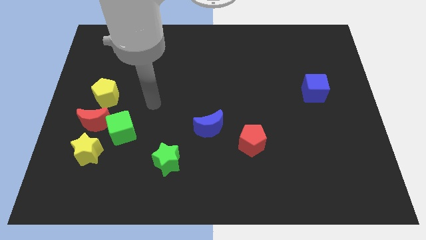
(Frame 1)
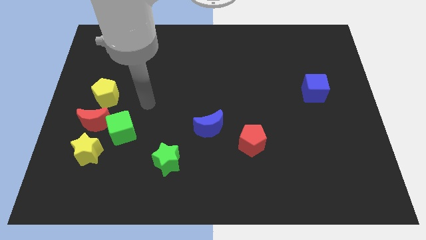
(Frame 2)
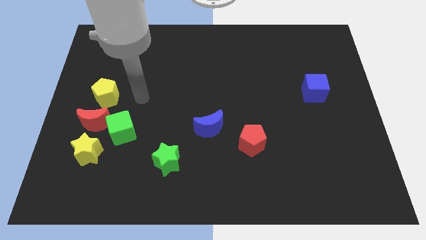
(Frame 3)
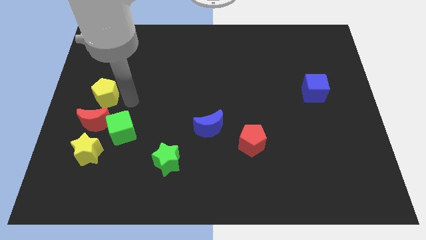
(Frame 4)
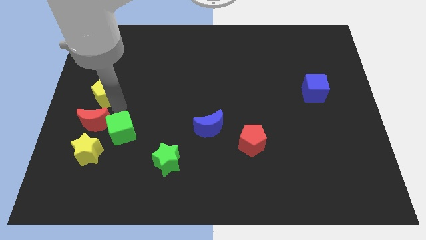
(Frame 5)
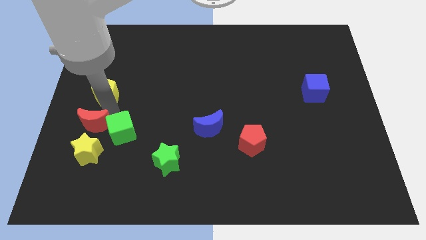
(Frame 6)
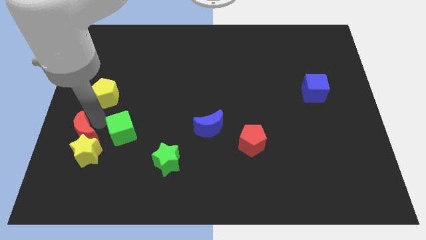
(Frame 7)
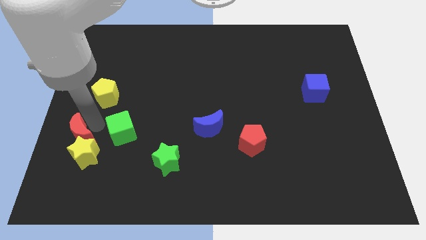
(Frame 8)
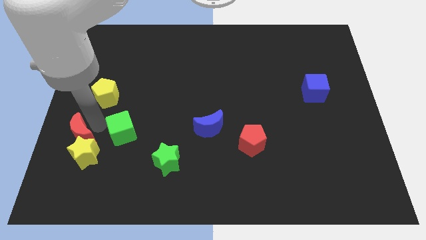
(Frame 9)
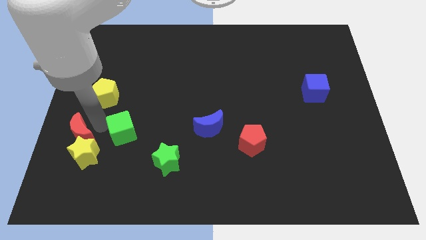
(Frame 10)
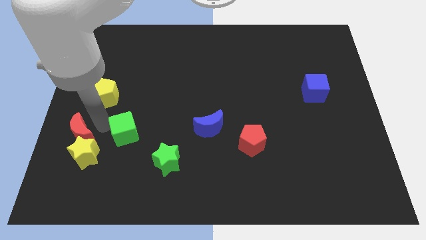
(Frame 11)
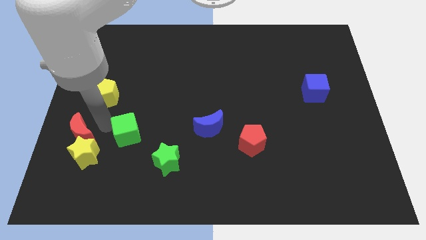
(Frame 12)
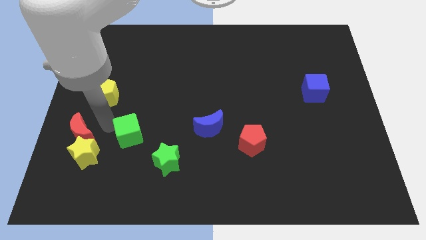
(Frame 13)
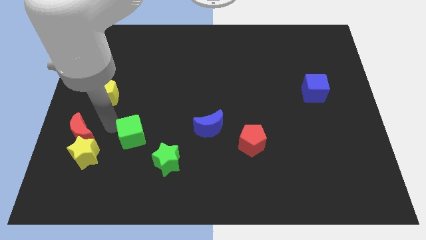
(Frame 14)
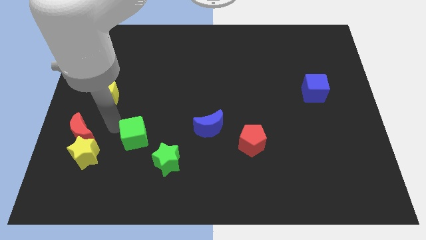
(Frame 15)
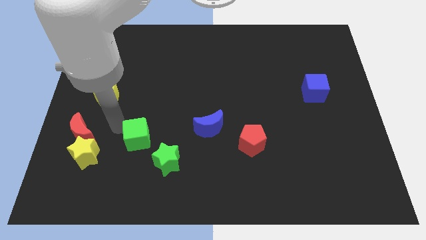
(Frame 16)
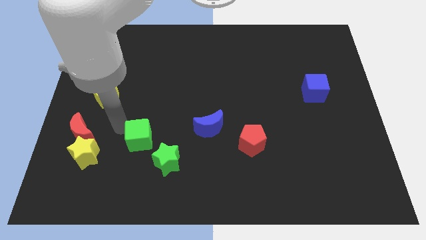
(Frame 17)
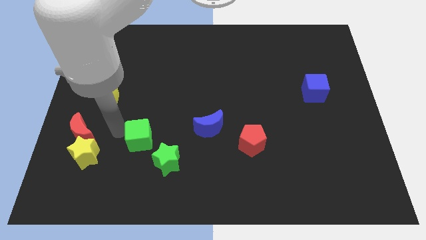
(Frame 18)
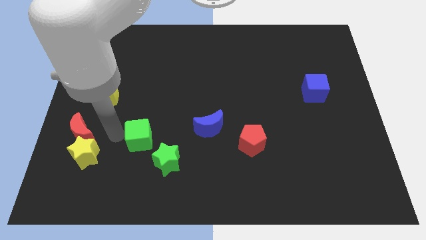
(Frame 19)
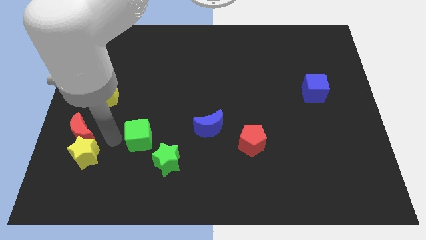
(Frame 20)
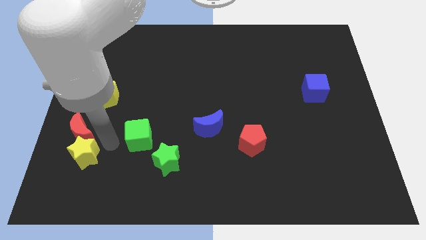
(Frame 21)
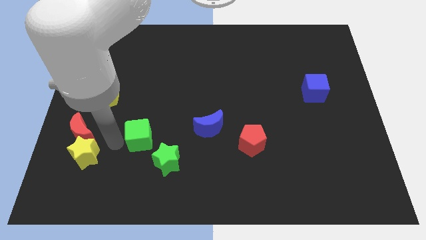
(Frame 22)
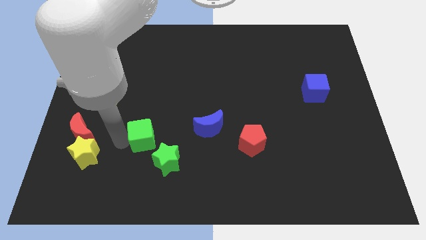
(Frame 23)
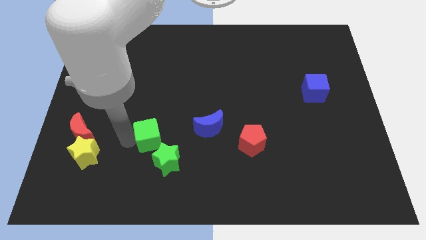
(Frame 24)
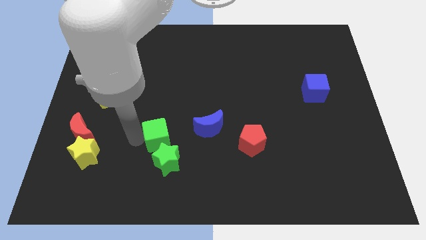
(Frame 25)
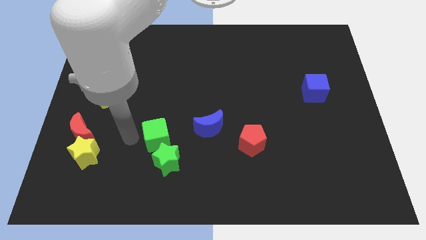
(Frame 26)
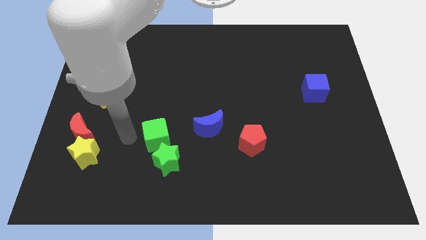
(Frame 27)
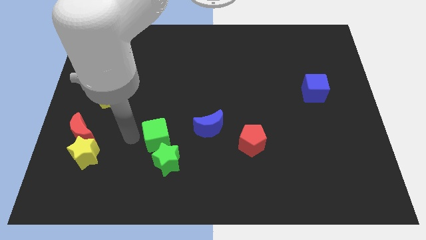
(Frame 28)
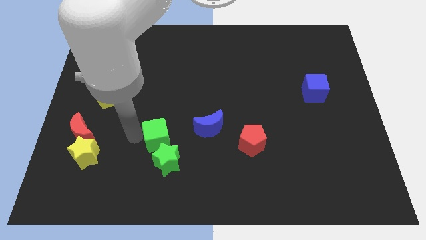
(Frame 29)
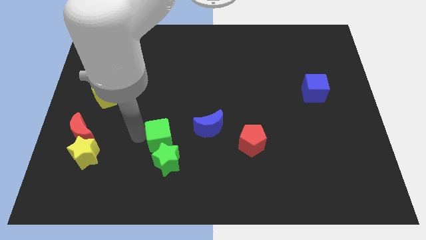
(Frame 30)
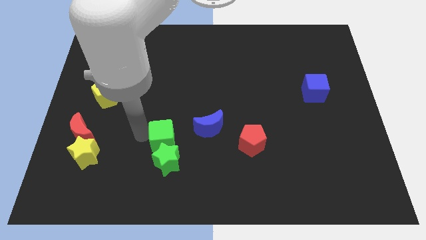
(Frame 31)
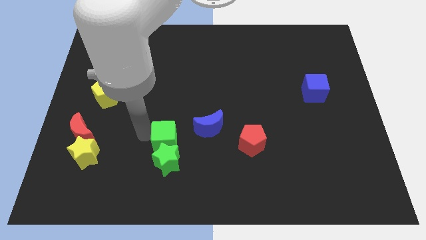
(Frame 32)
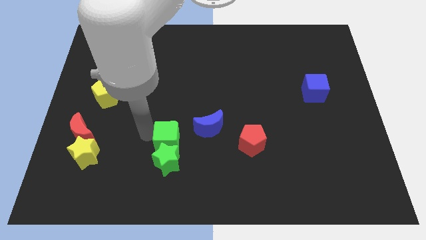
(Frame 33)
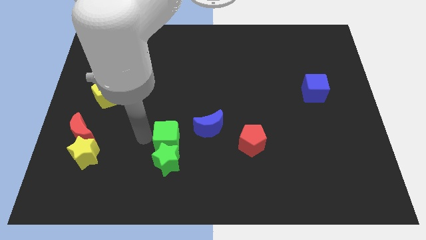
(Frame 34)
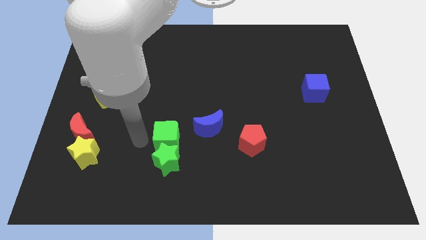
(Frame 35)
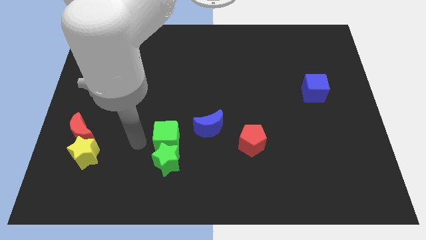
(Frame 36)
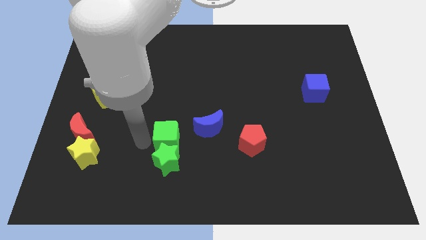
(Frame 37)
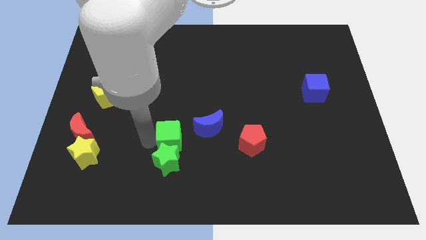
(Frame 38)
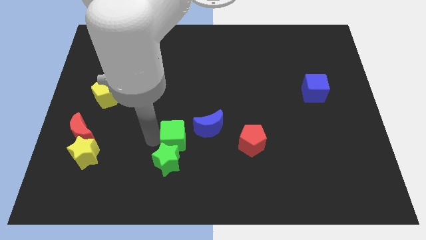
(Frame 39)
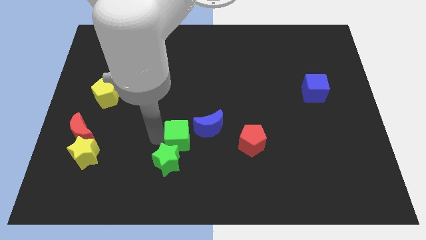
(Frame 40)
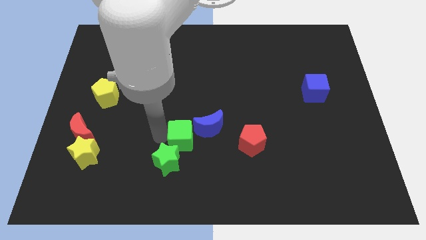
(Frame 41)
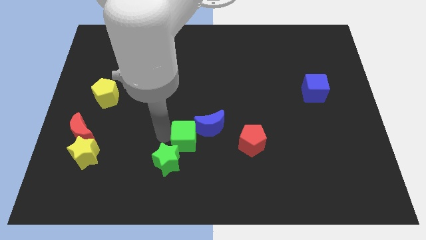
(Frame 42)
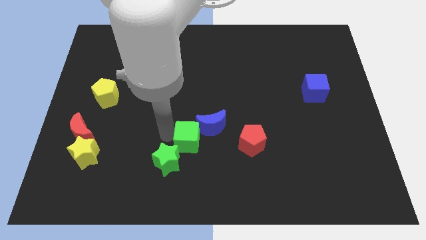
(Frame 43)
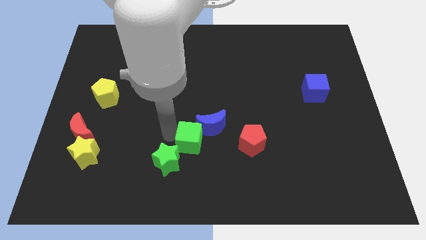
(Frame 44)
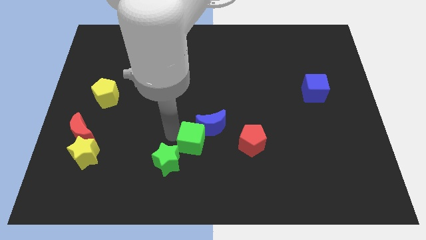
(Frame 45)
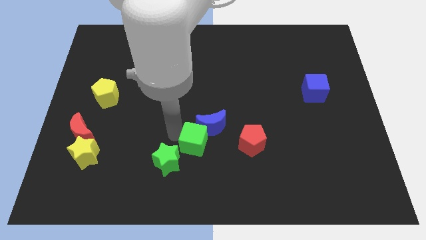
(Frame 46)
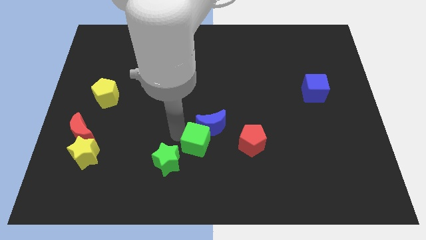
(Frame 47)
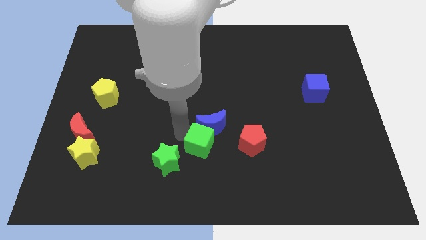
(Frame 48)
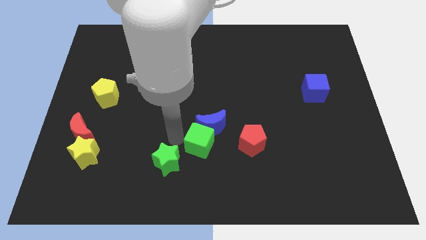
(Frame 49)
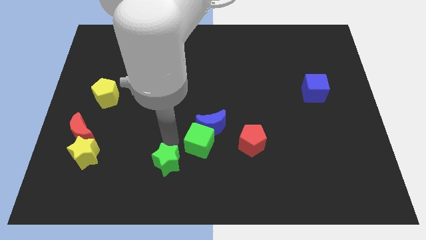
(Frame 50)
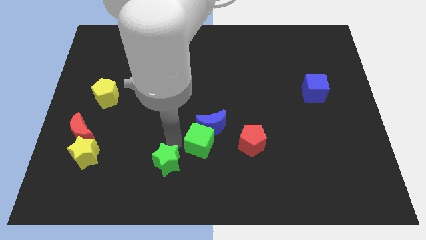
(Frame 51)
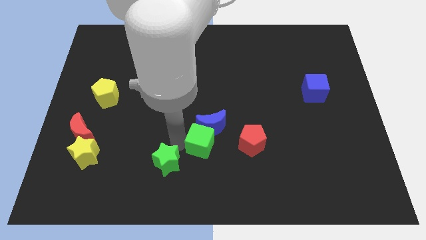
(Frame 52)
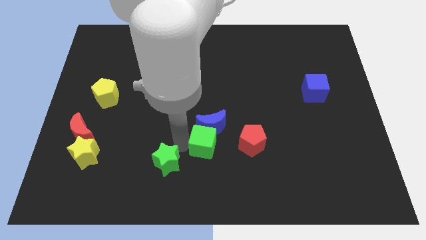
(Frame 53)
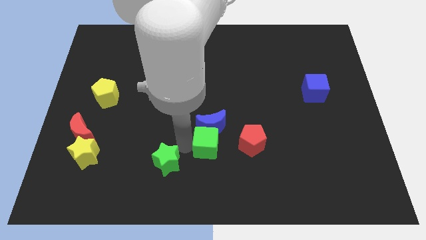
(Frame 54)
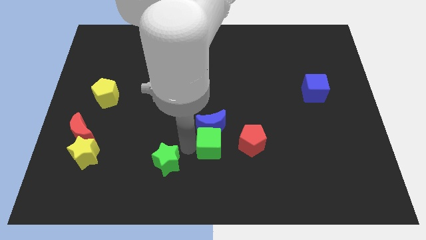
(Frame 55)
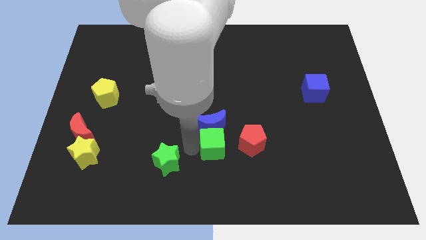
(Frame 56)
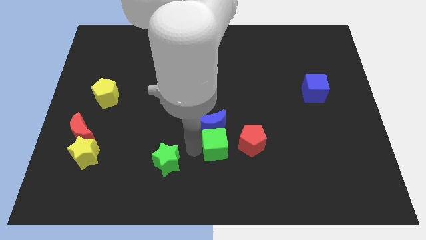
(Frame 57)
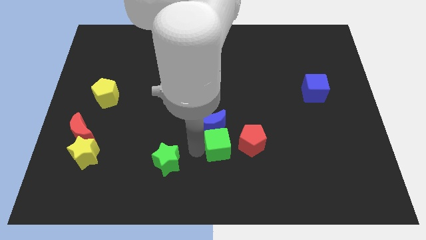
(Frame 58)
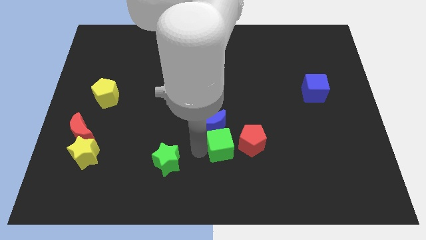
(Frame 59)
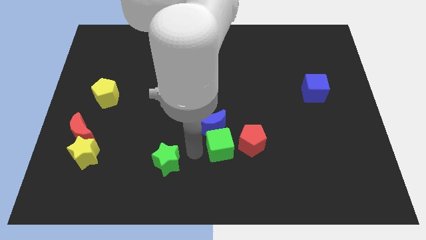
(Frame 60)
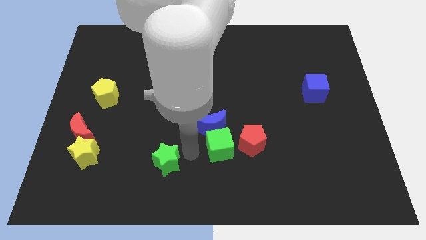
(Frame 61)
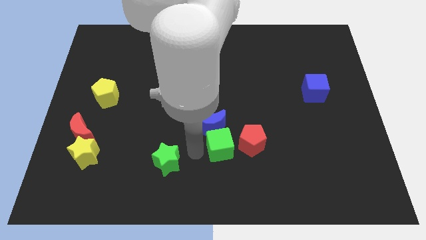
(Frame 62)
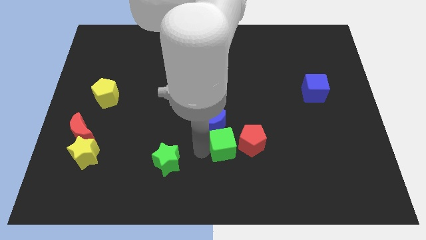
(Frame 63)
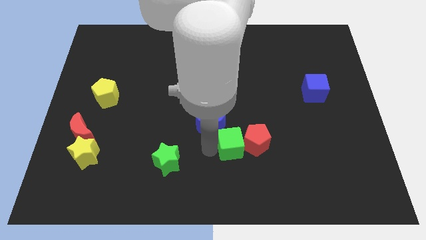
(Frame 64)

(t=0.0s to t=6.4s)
move the green cube to the red pentagon
